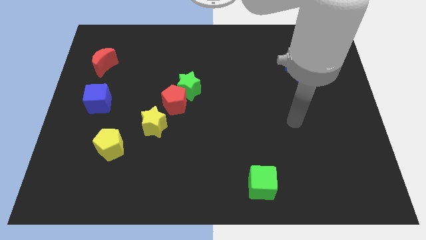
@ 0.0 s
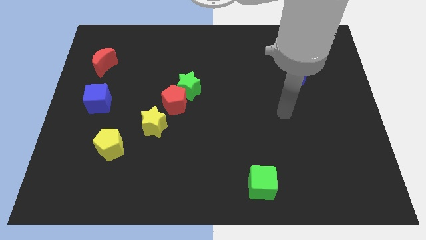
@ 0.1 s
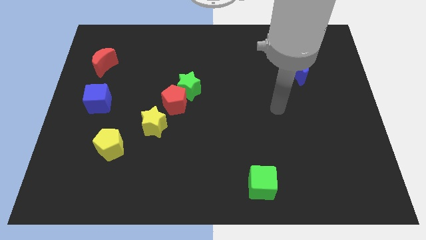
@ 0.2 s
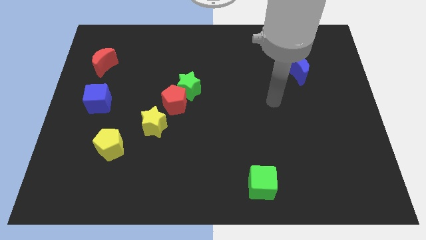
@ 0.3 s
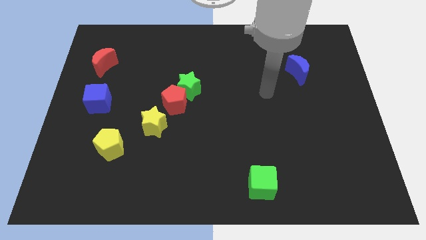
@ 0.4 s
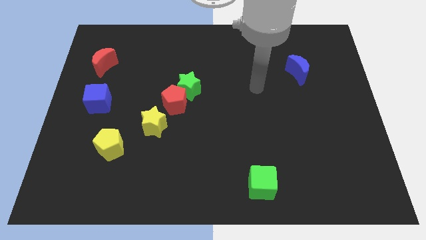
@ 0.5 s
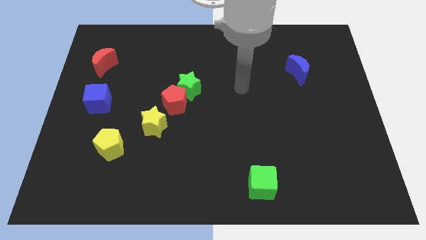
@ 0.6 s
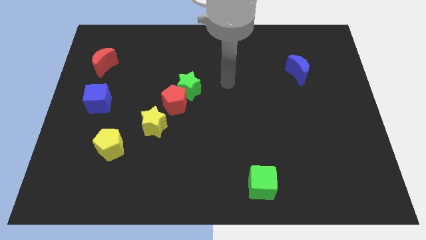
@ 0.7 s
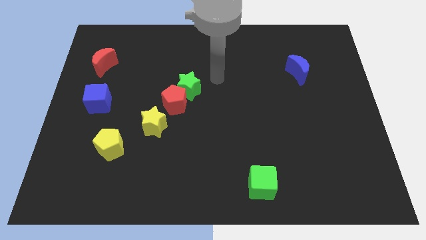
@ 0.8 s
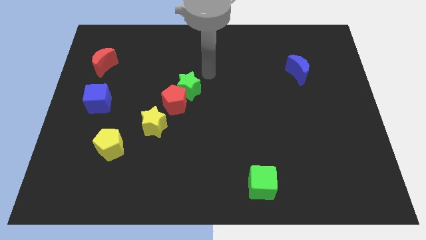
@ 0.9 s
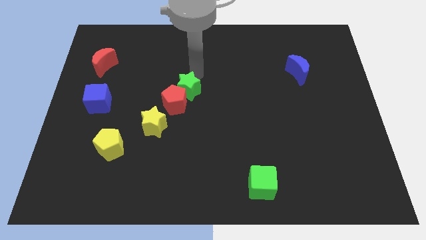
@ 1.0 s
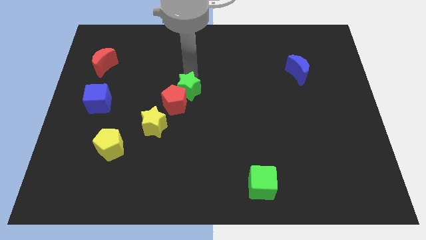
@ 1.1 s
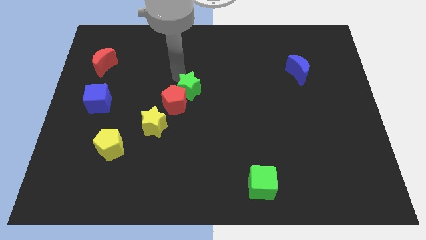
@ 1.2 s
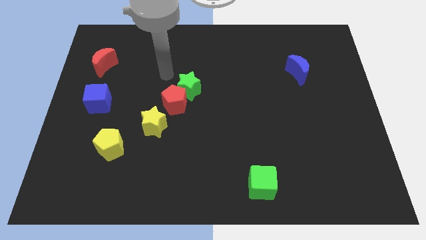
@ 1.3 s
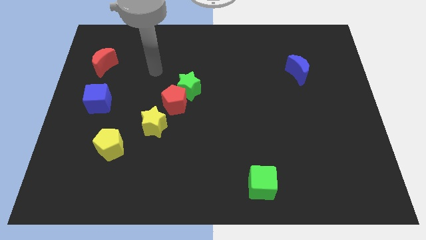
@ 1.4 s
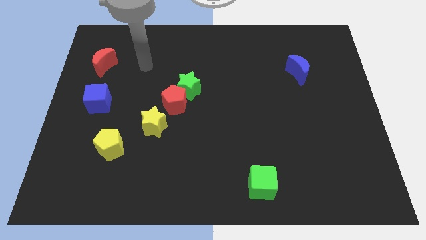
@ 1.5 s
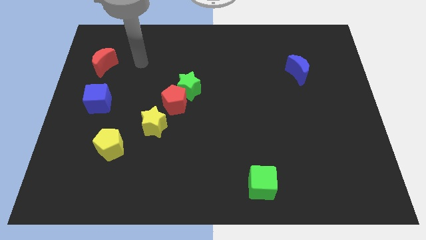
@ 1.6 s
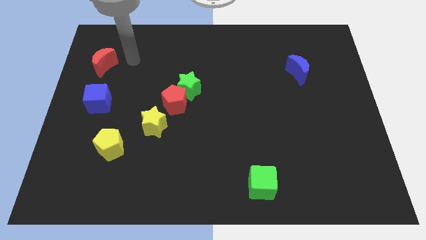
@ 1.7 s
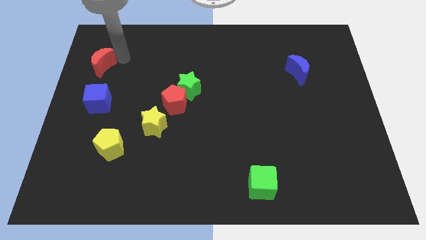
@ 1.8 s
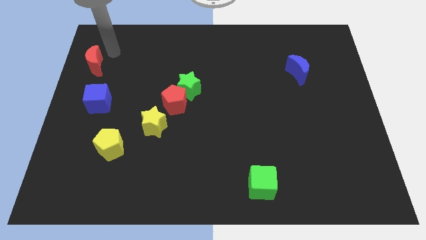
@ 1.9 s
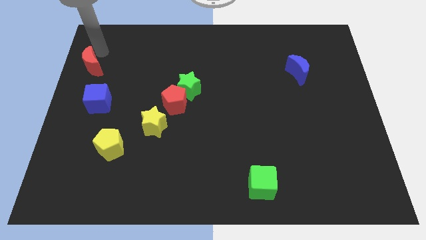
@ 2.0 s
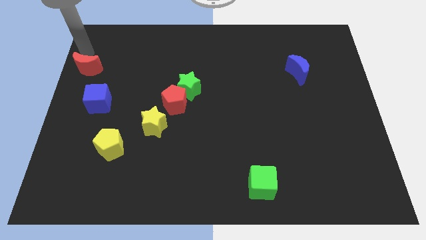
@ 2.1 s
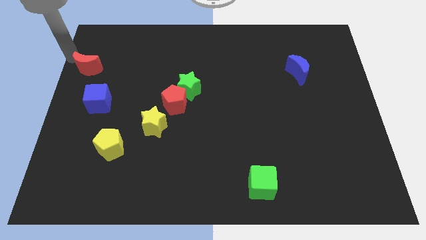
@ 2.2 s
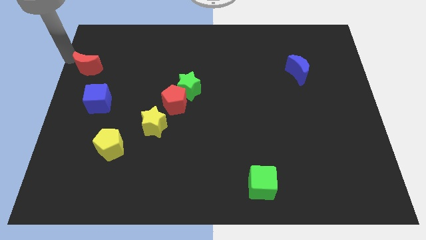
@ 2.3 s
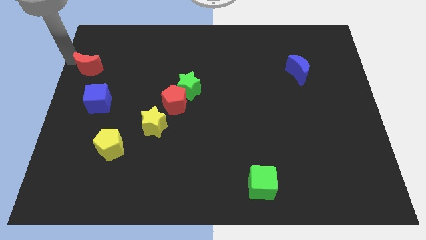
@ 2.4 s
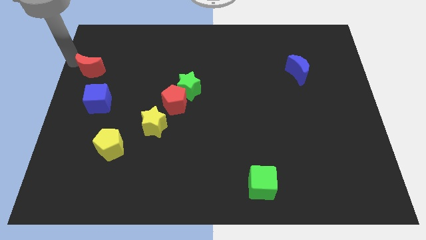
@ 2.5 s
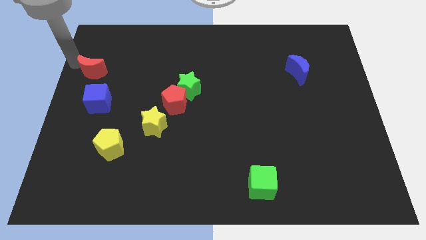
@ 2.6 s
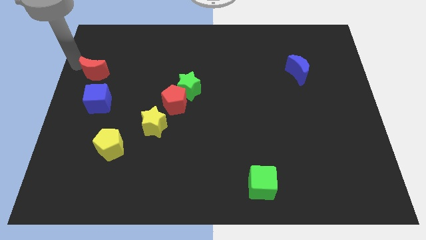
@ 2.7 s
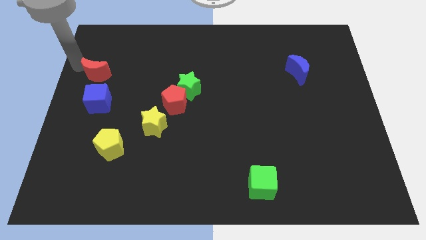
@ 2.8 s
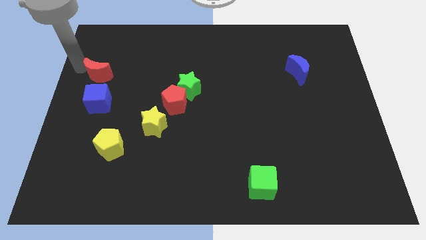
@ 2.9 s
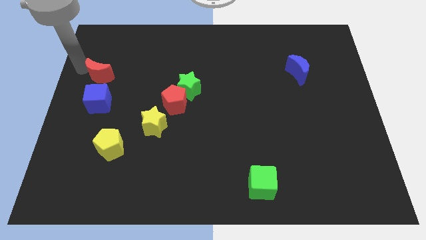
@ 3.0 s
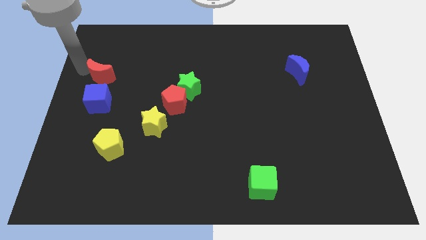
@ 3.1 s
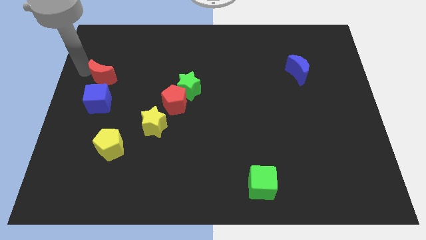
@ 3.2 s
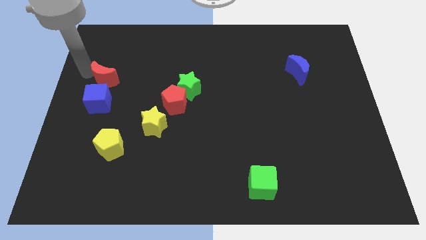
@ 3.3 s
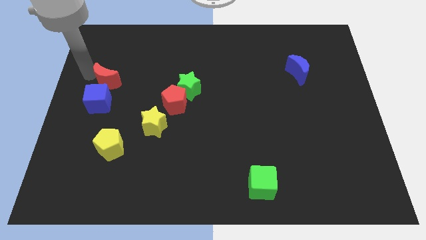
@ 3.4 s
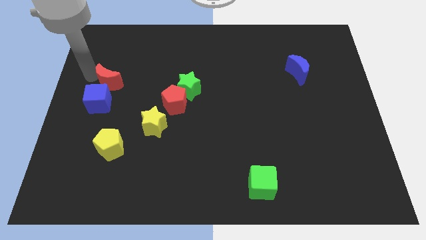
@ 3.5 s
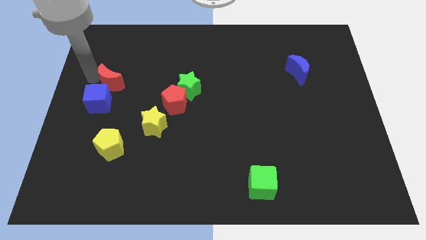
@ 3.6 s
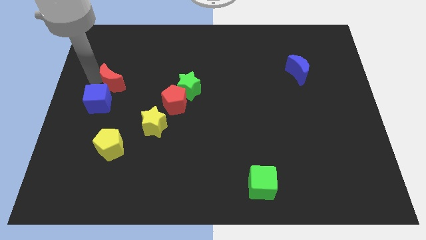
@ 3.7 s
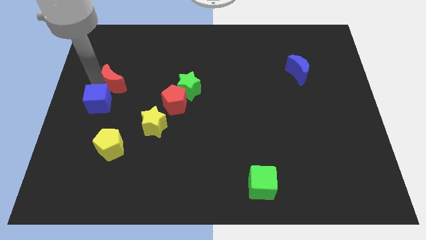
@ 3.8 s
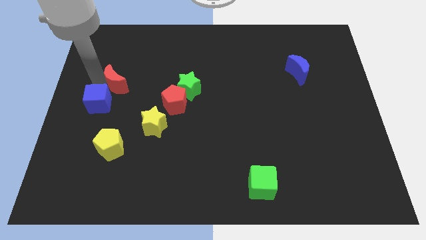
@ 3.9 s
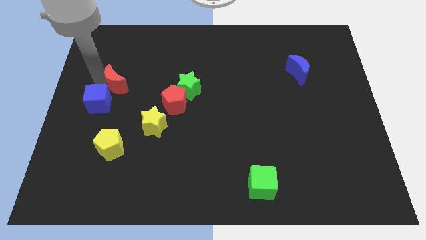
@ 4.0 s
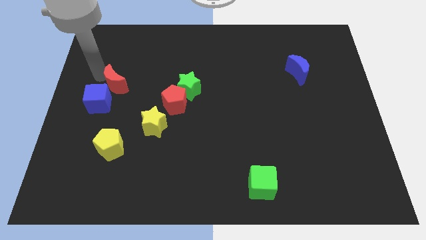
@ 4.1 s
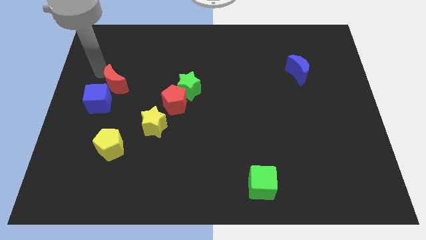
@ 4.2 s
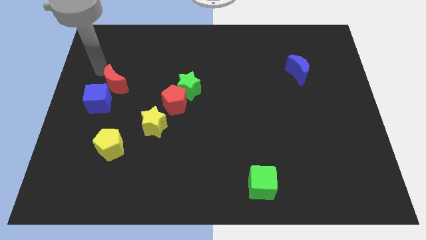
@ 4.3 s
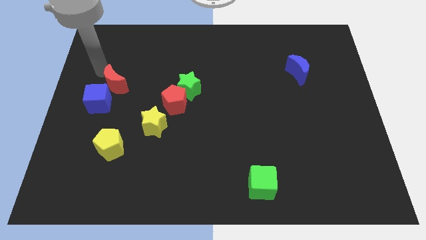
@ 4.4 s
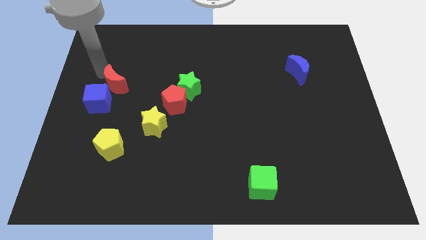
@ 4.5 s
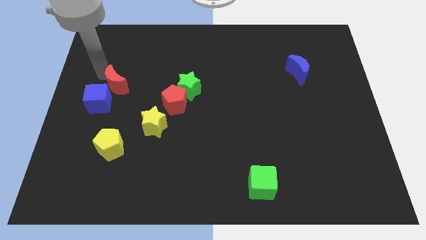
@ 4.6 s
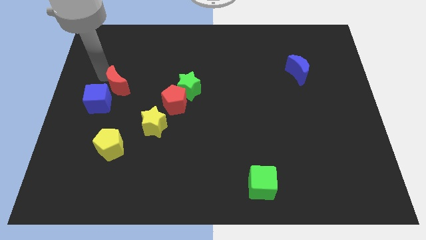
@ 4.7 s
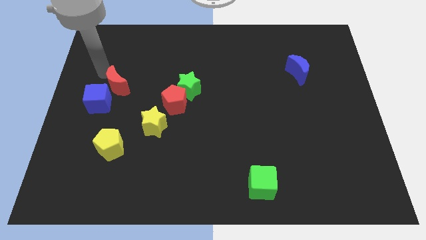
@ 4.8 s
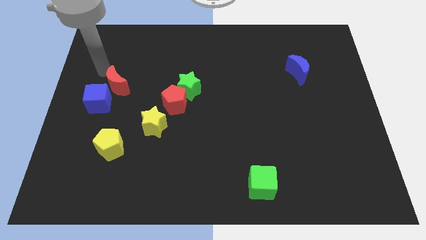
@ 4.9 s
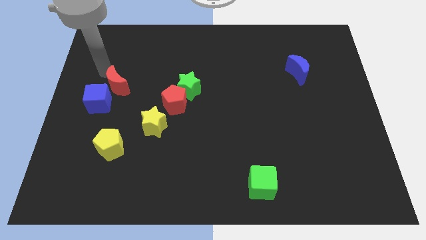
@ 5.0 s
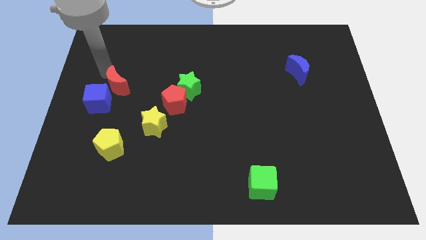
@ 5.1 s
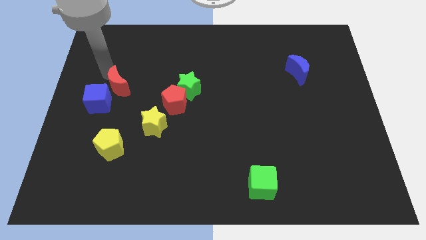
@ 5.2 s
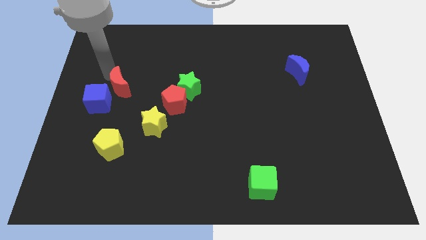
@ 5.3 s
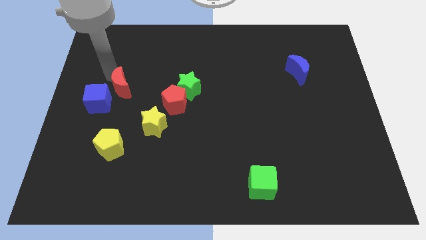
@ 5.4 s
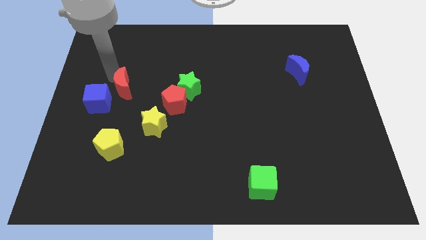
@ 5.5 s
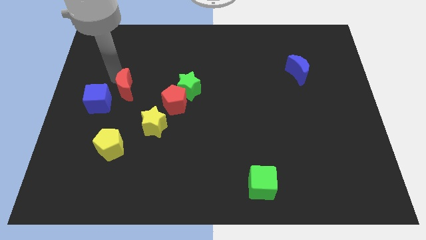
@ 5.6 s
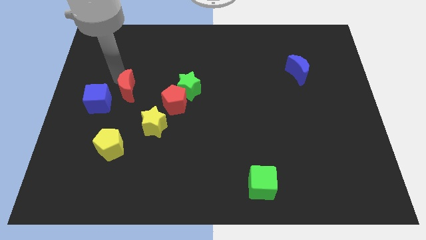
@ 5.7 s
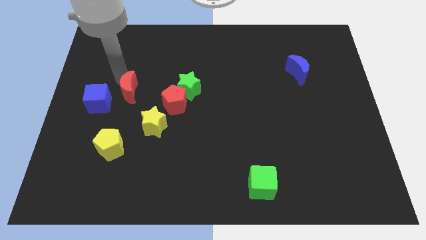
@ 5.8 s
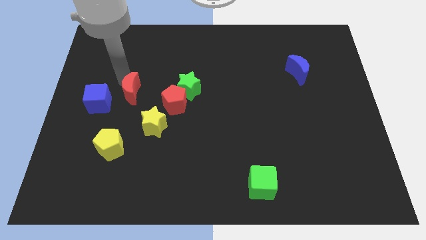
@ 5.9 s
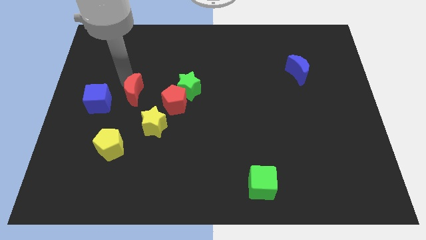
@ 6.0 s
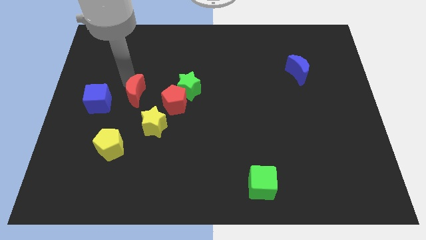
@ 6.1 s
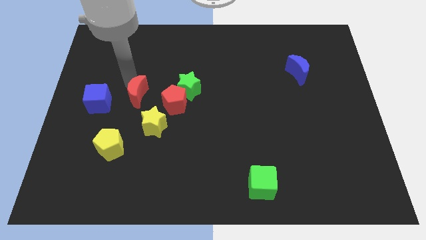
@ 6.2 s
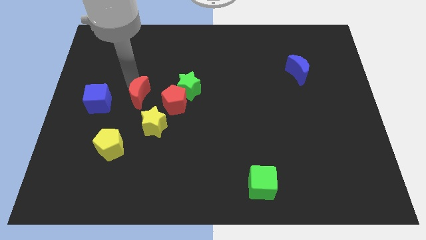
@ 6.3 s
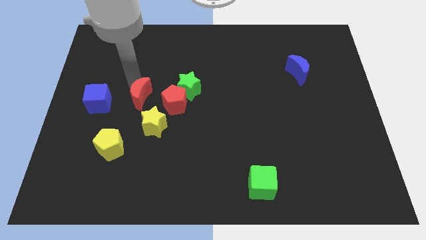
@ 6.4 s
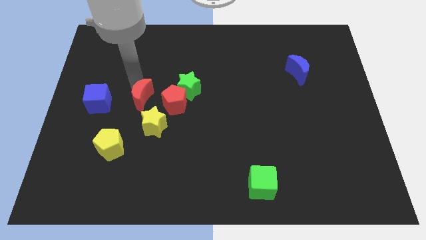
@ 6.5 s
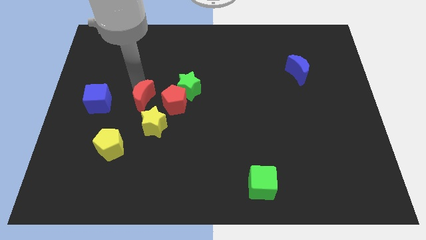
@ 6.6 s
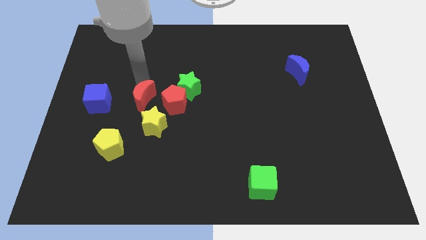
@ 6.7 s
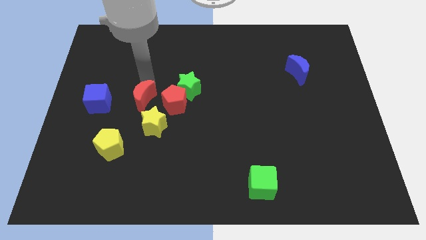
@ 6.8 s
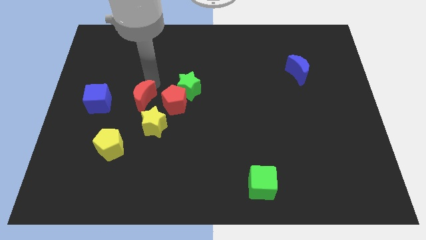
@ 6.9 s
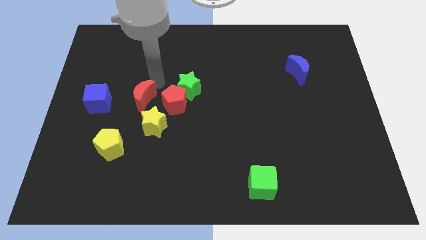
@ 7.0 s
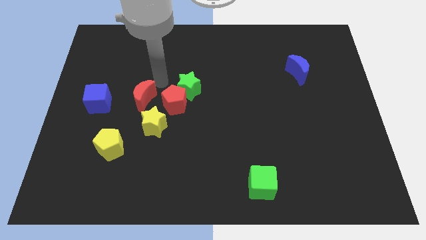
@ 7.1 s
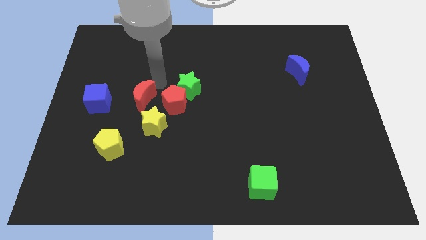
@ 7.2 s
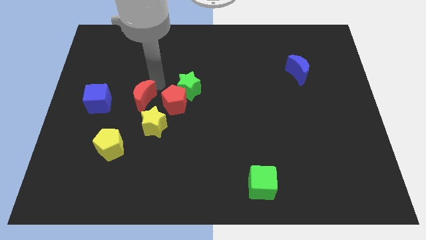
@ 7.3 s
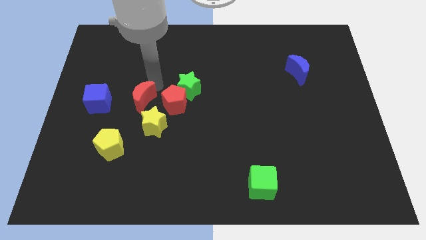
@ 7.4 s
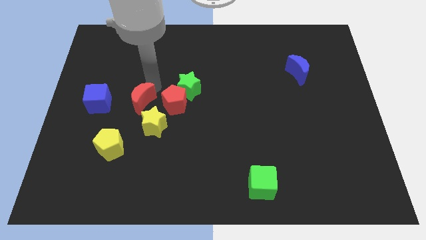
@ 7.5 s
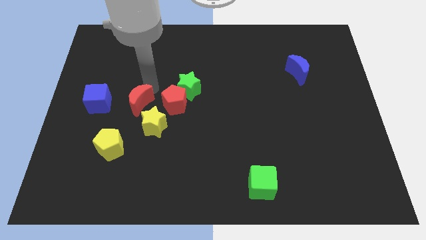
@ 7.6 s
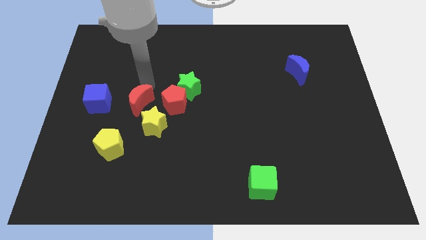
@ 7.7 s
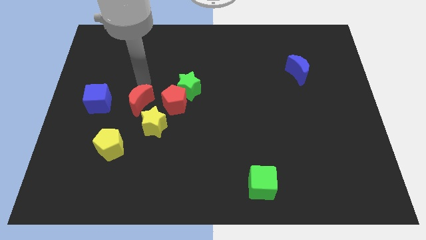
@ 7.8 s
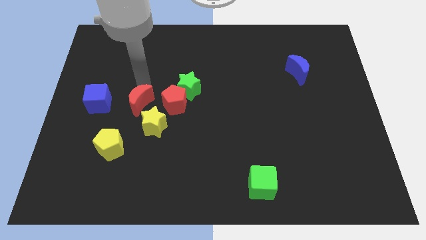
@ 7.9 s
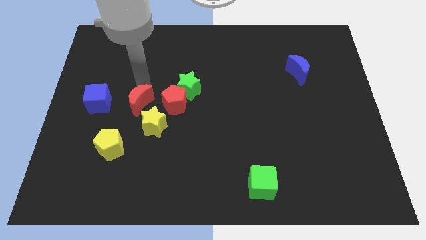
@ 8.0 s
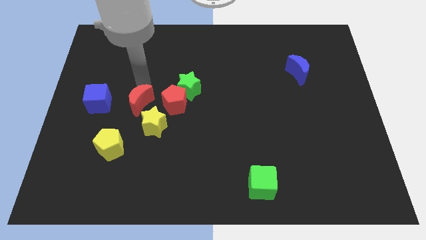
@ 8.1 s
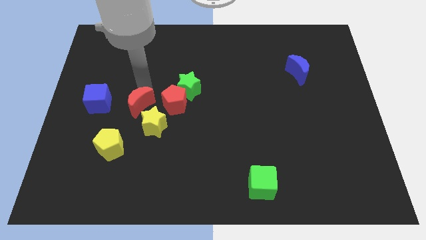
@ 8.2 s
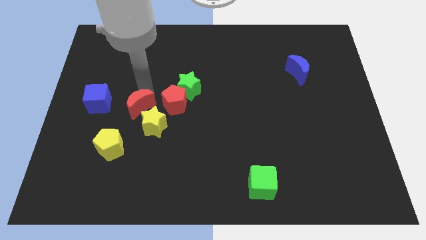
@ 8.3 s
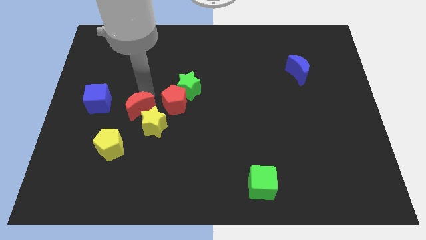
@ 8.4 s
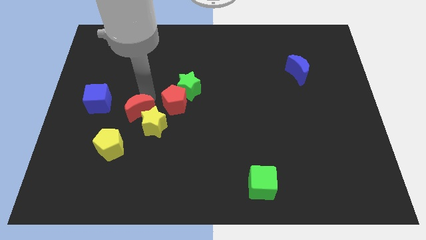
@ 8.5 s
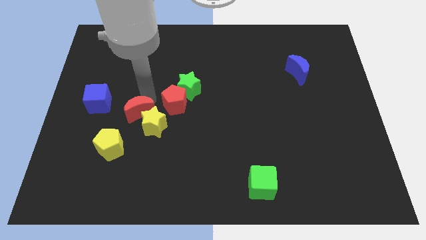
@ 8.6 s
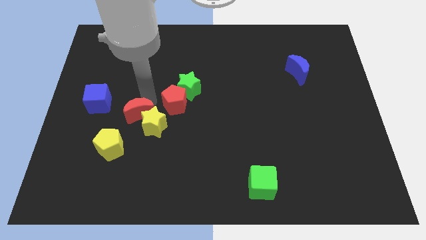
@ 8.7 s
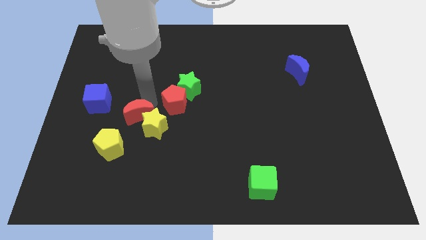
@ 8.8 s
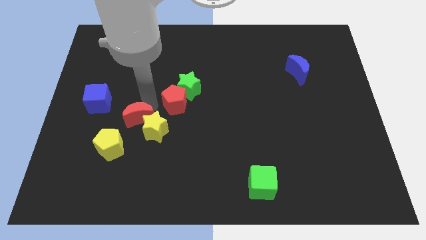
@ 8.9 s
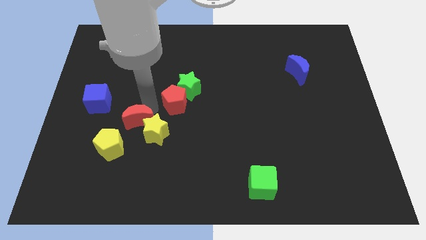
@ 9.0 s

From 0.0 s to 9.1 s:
push the red moon down and then to the right
